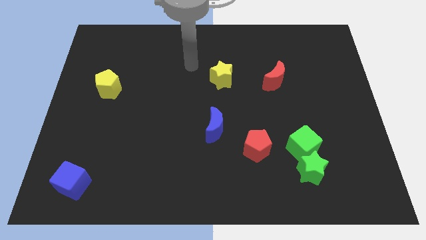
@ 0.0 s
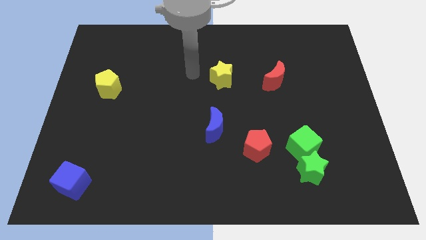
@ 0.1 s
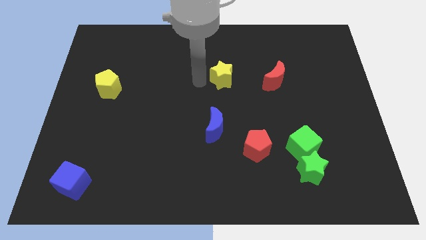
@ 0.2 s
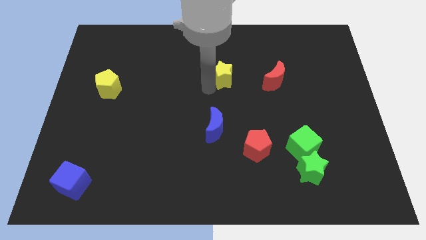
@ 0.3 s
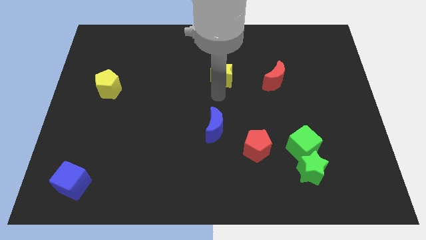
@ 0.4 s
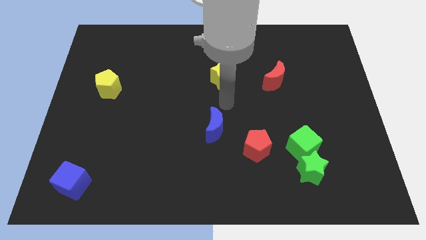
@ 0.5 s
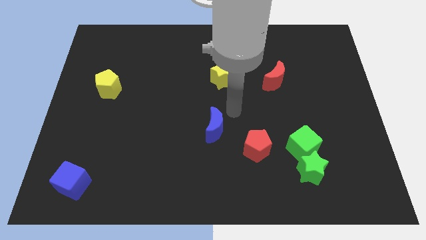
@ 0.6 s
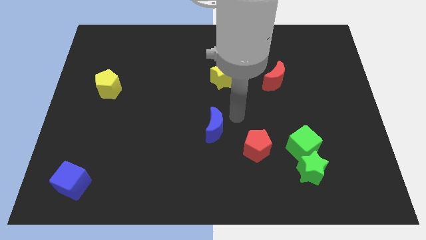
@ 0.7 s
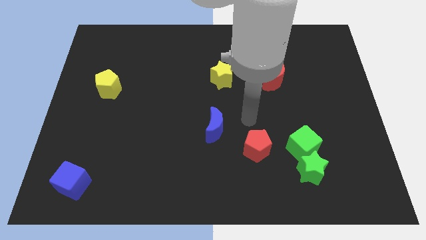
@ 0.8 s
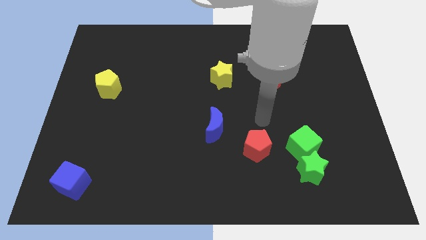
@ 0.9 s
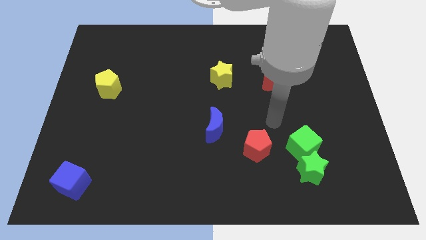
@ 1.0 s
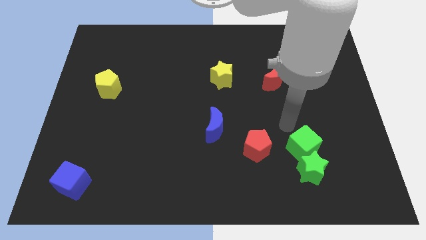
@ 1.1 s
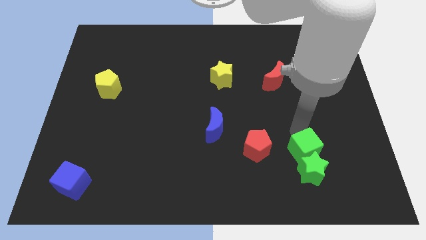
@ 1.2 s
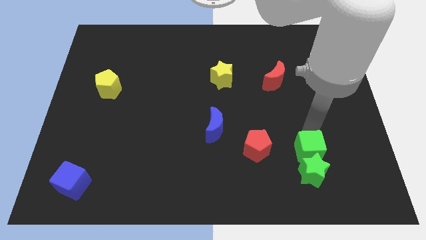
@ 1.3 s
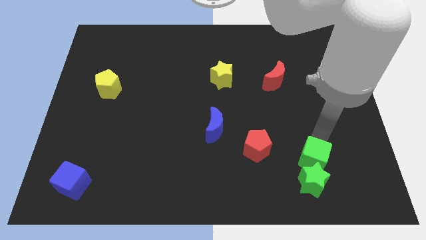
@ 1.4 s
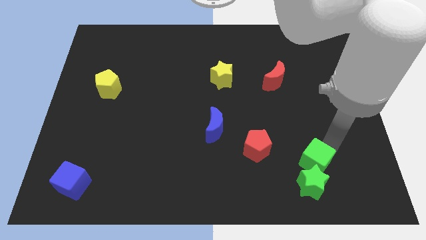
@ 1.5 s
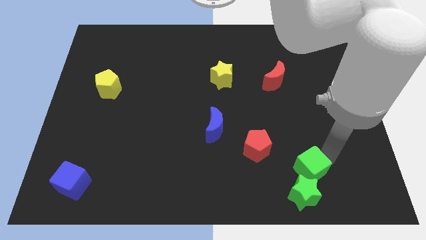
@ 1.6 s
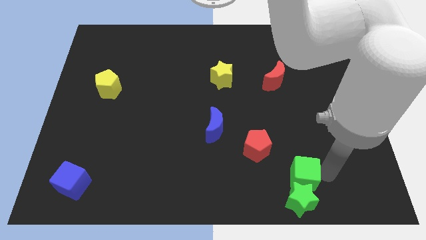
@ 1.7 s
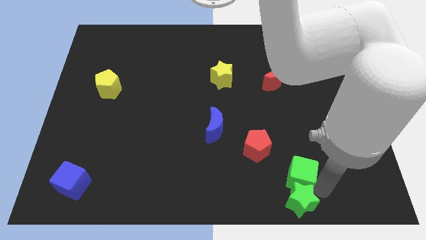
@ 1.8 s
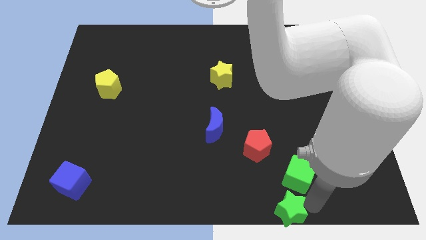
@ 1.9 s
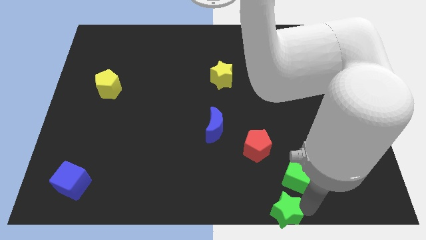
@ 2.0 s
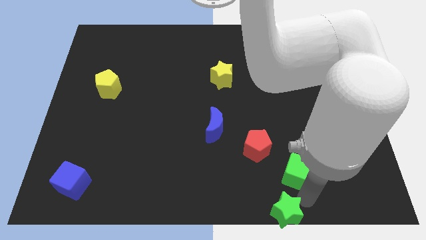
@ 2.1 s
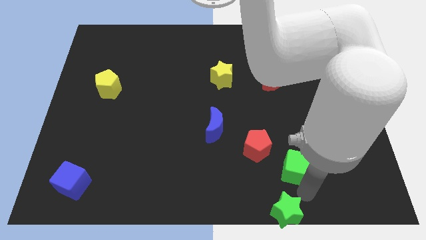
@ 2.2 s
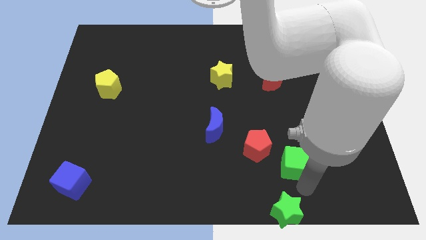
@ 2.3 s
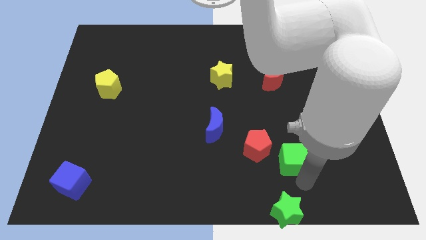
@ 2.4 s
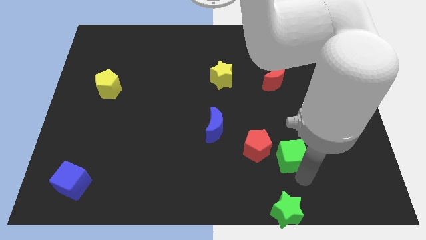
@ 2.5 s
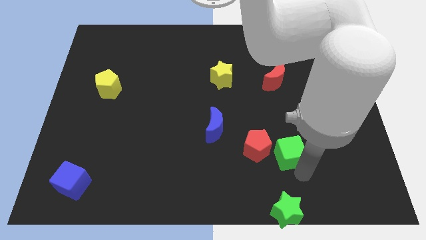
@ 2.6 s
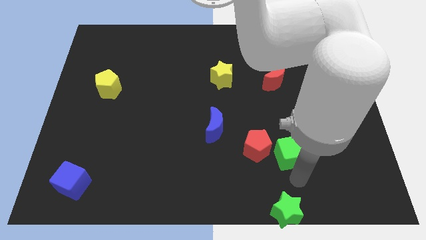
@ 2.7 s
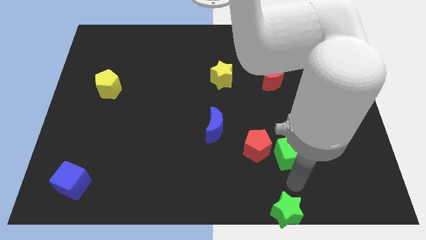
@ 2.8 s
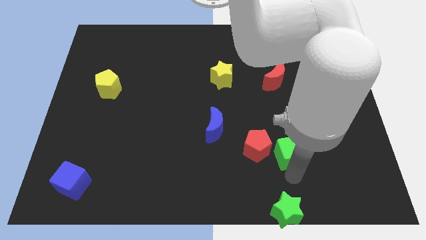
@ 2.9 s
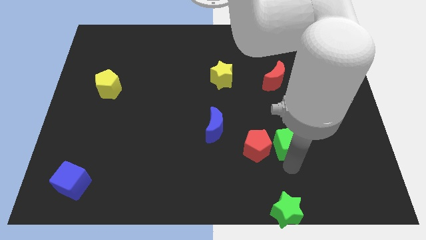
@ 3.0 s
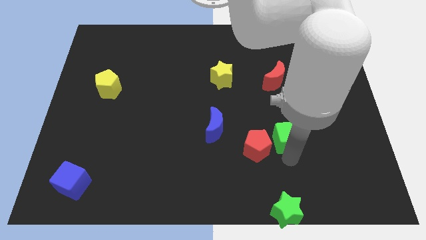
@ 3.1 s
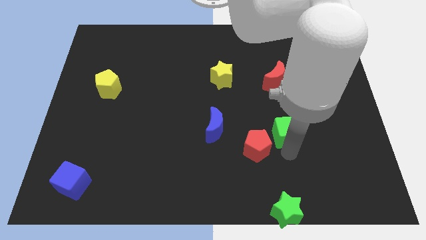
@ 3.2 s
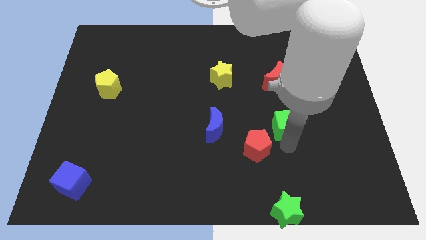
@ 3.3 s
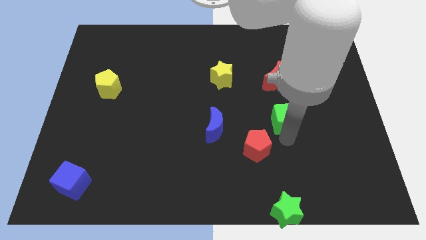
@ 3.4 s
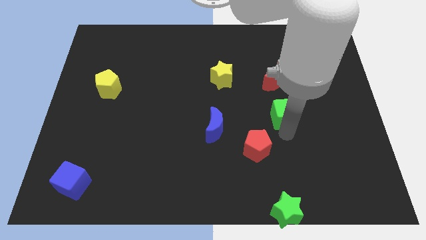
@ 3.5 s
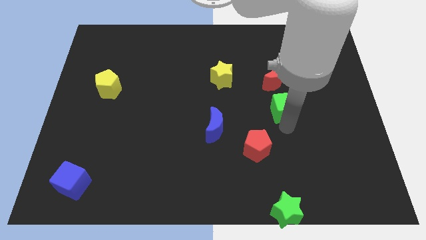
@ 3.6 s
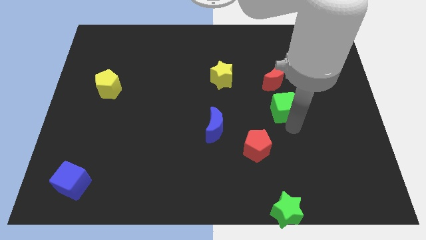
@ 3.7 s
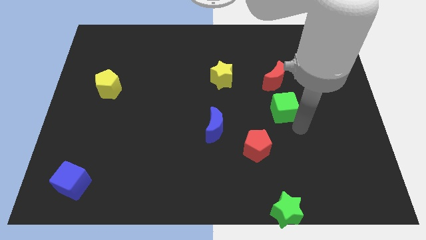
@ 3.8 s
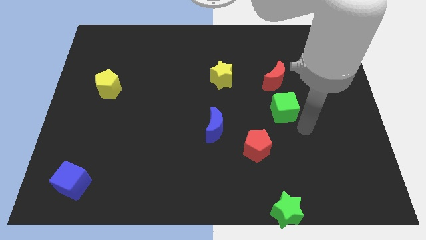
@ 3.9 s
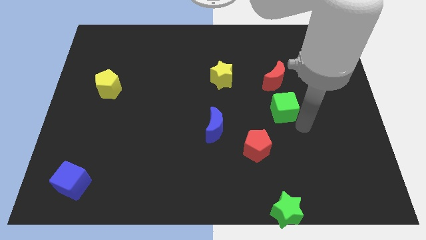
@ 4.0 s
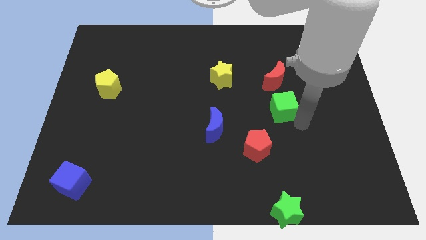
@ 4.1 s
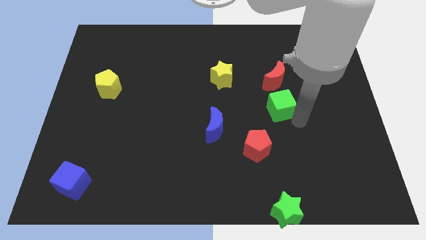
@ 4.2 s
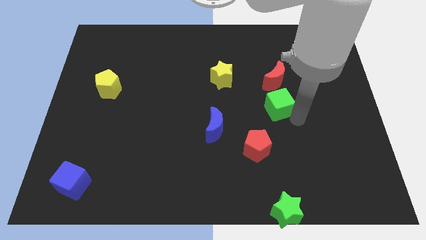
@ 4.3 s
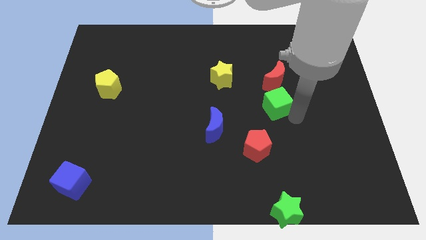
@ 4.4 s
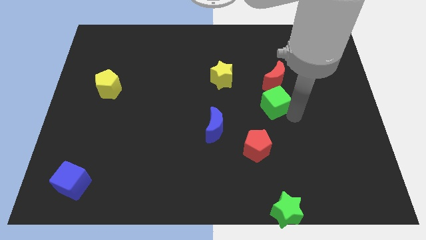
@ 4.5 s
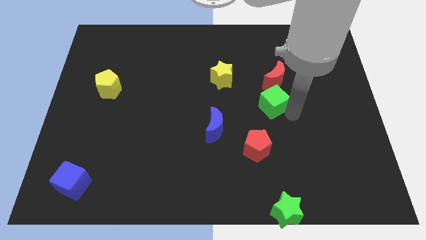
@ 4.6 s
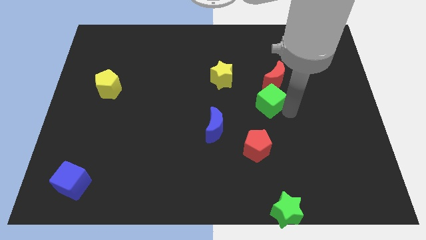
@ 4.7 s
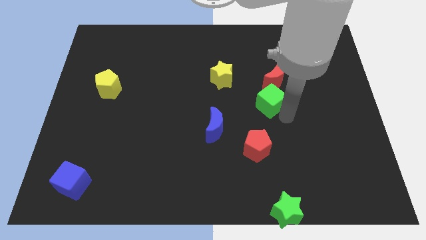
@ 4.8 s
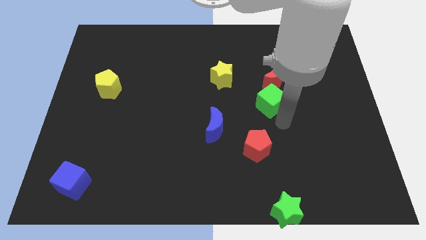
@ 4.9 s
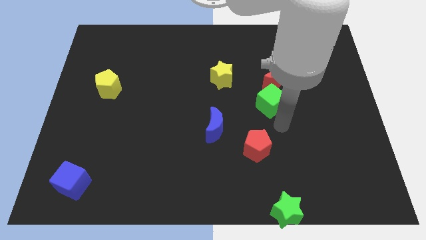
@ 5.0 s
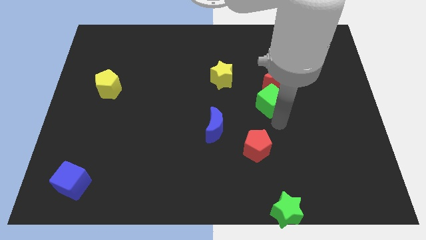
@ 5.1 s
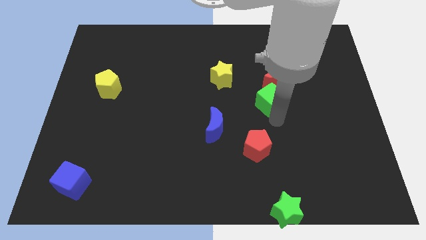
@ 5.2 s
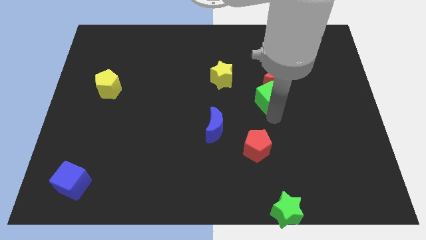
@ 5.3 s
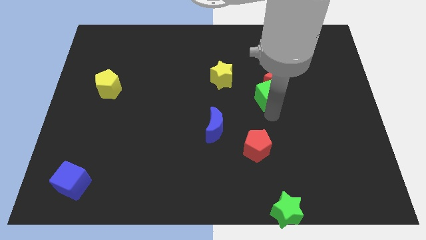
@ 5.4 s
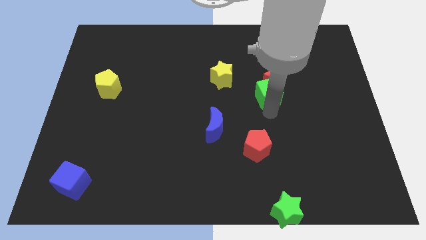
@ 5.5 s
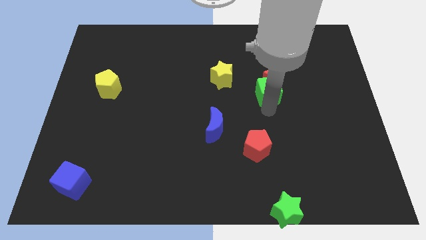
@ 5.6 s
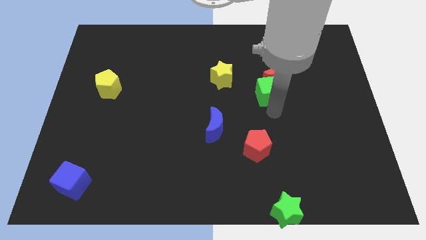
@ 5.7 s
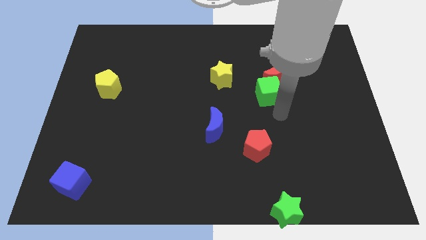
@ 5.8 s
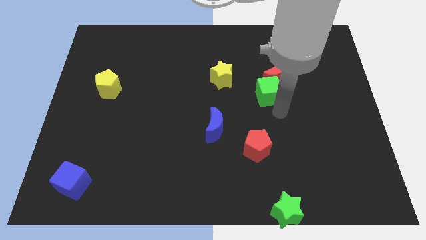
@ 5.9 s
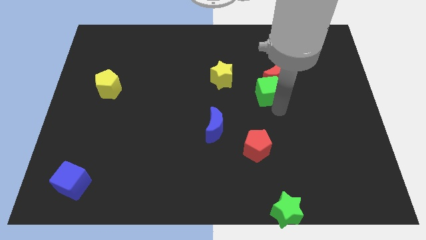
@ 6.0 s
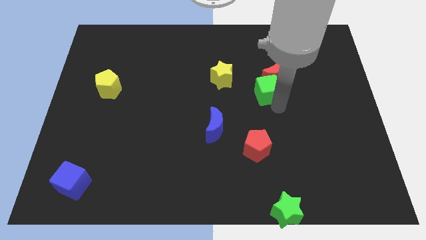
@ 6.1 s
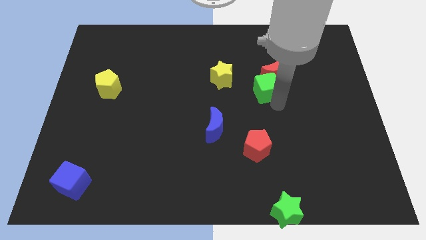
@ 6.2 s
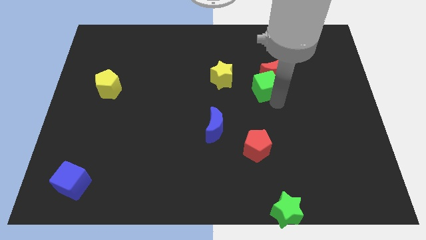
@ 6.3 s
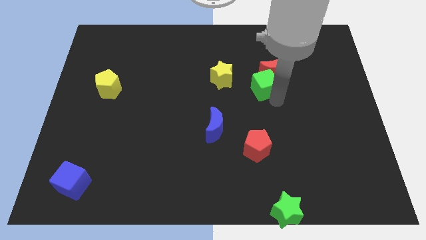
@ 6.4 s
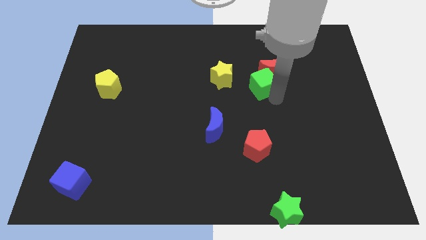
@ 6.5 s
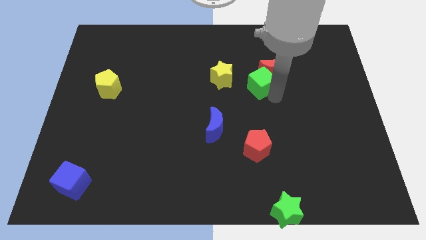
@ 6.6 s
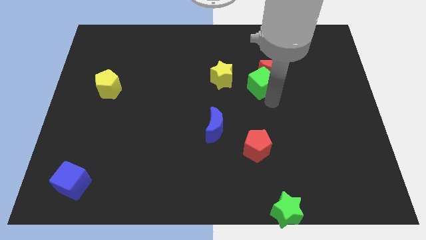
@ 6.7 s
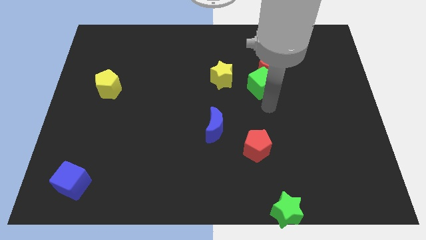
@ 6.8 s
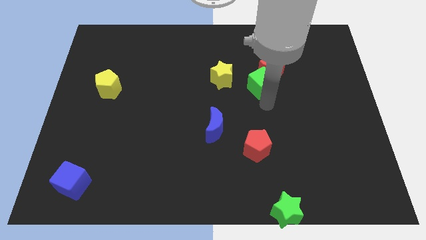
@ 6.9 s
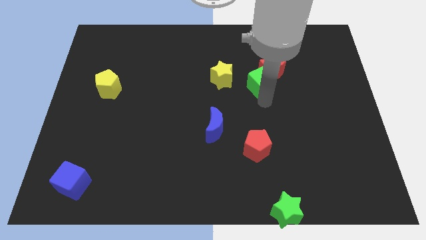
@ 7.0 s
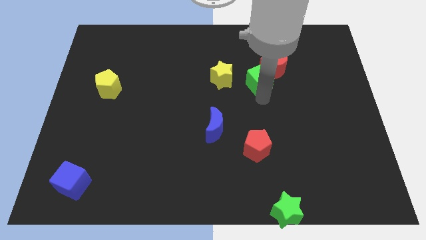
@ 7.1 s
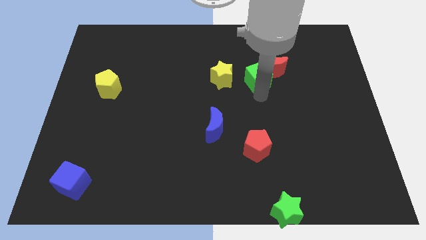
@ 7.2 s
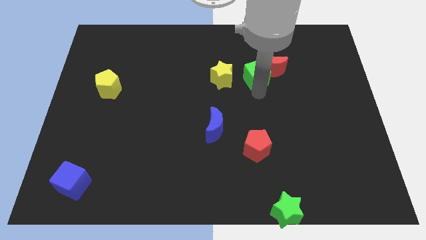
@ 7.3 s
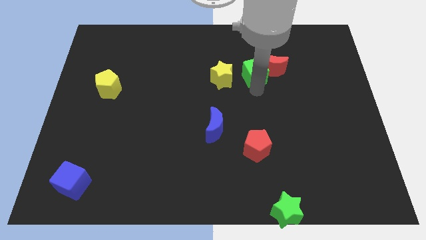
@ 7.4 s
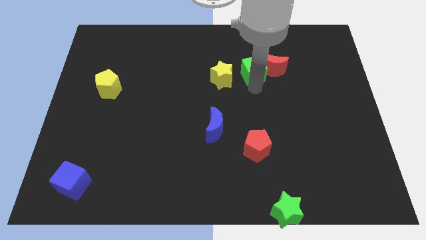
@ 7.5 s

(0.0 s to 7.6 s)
push the green cube to the top left of the red moon
